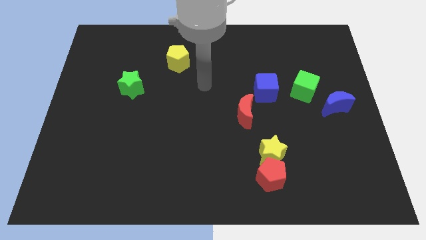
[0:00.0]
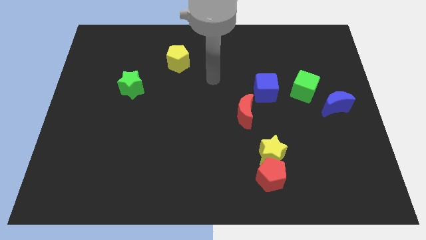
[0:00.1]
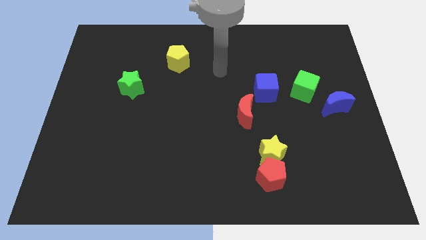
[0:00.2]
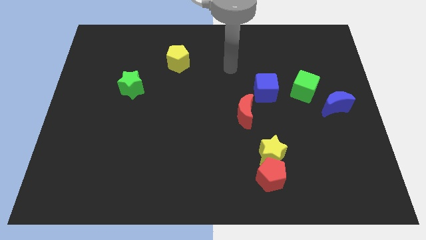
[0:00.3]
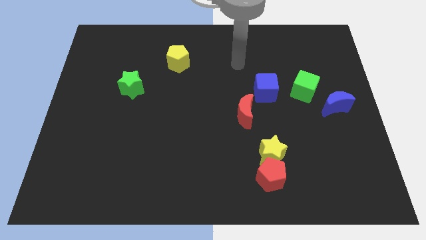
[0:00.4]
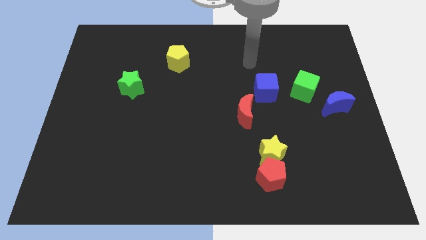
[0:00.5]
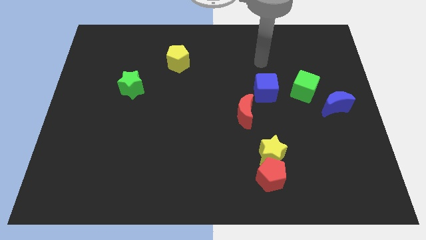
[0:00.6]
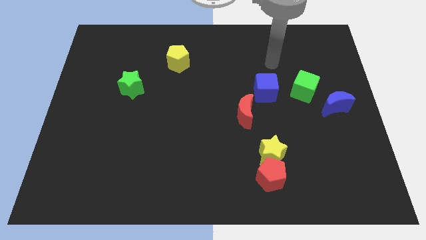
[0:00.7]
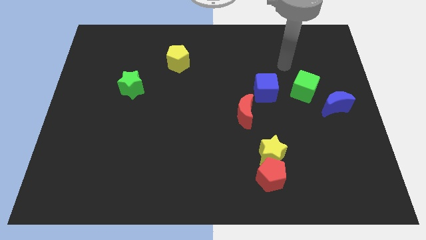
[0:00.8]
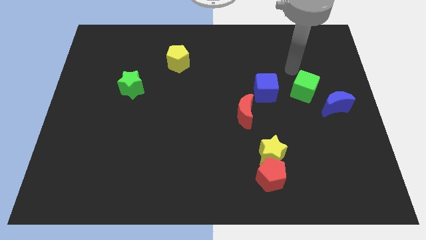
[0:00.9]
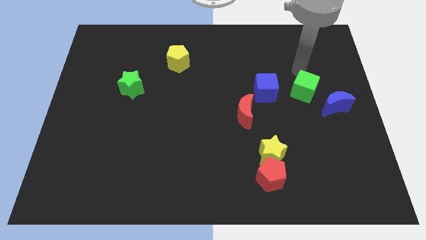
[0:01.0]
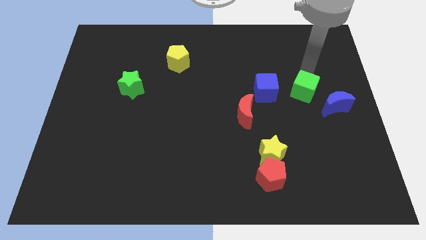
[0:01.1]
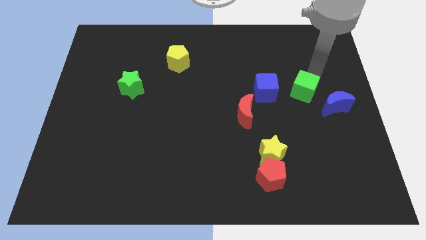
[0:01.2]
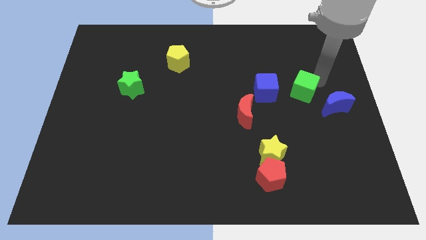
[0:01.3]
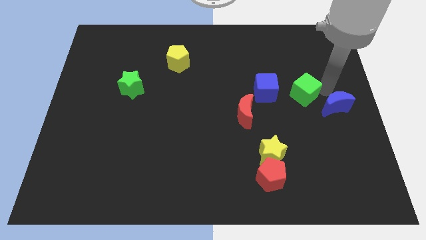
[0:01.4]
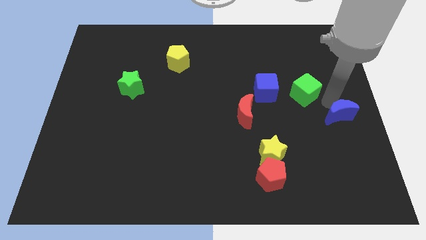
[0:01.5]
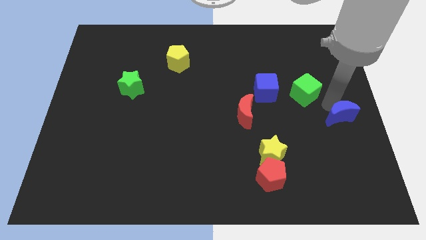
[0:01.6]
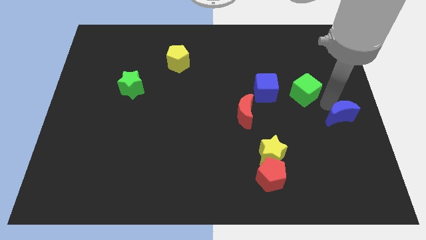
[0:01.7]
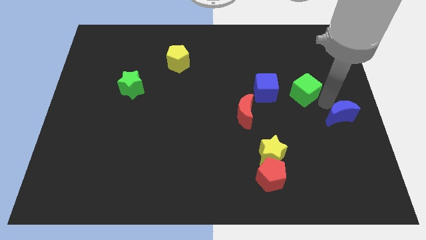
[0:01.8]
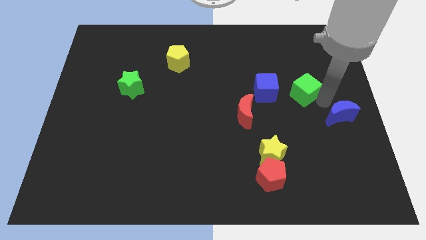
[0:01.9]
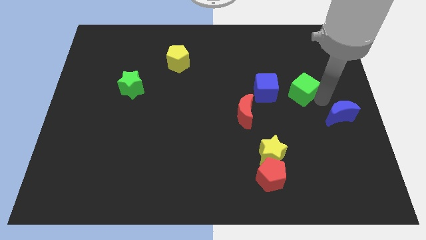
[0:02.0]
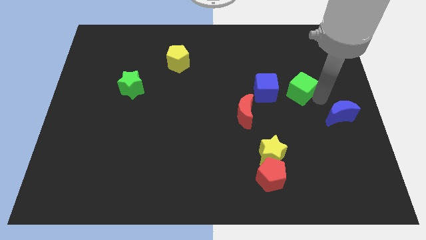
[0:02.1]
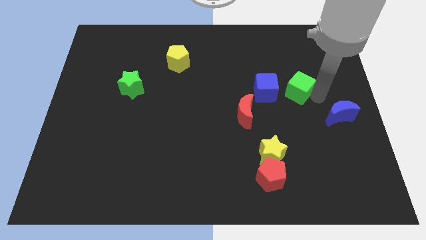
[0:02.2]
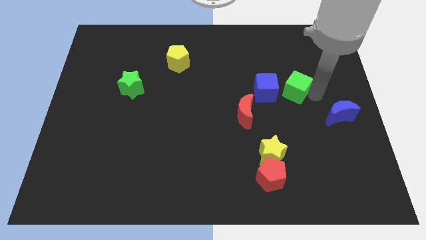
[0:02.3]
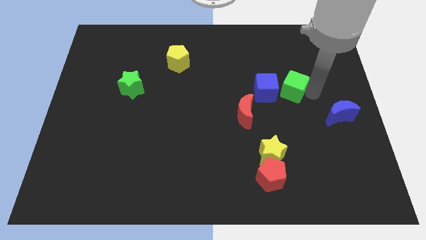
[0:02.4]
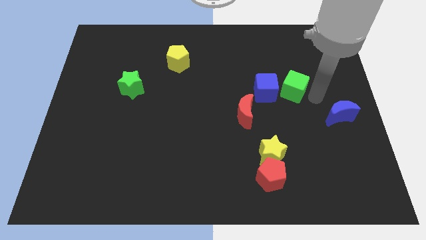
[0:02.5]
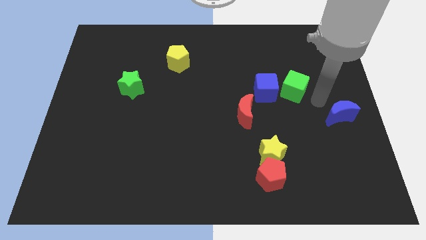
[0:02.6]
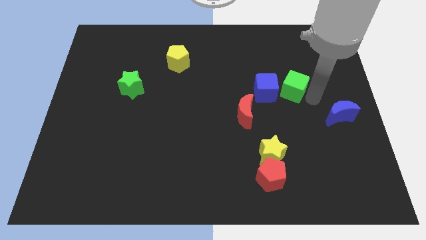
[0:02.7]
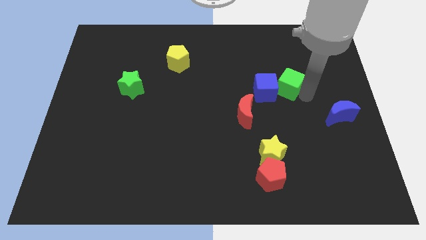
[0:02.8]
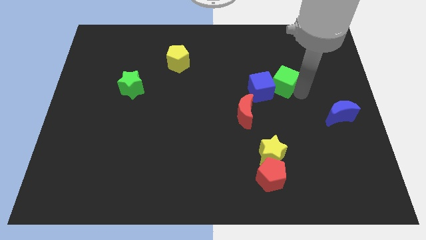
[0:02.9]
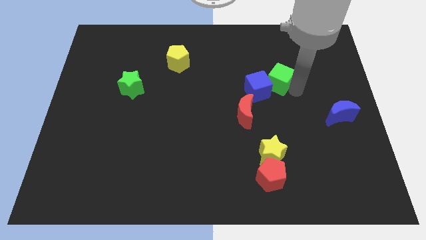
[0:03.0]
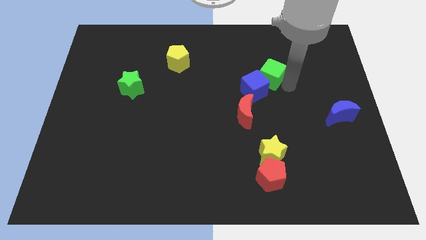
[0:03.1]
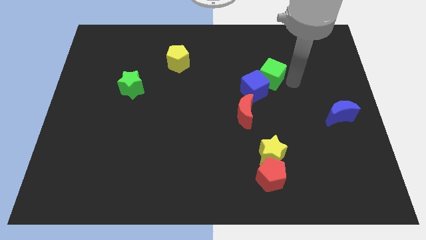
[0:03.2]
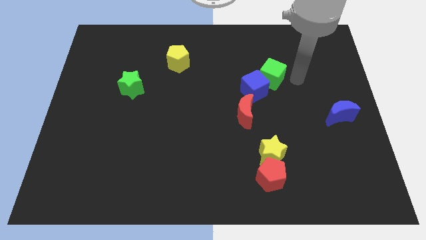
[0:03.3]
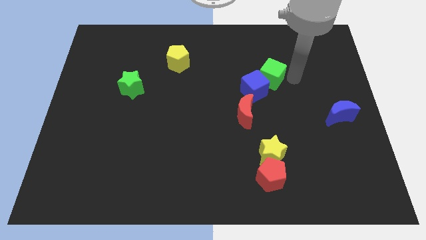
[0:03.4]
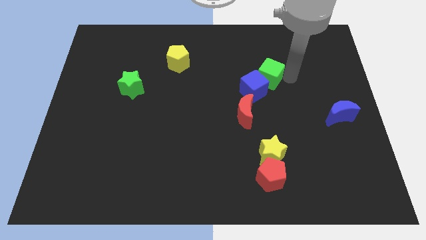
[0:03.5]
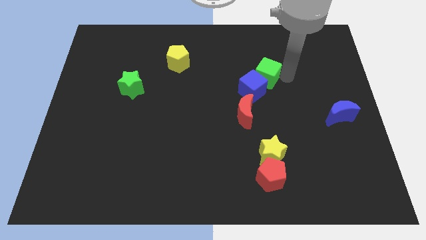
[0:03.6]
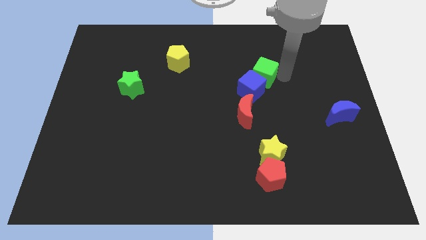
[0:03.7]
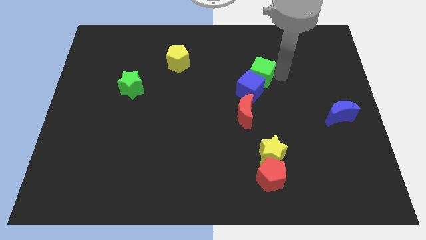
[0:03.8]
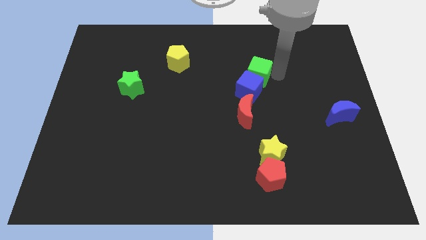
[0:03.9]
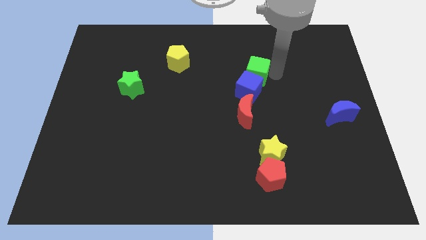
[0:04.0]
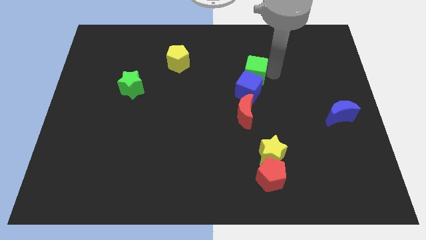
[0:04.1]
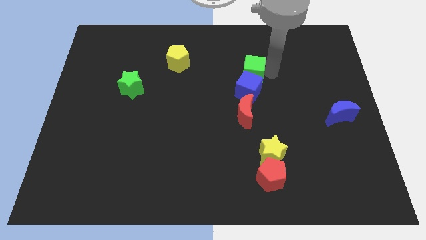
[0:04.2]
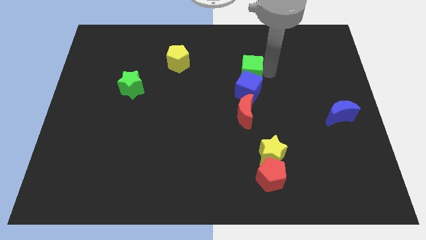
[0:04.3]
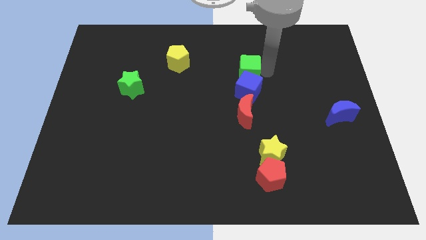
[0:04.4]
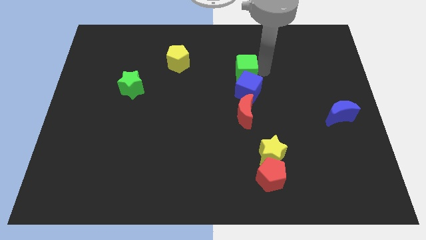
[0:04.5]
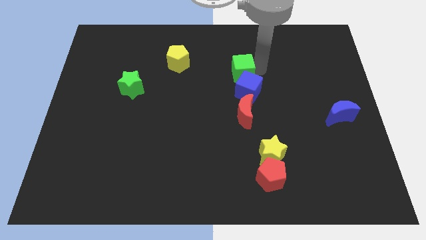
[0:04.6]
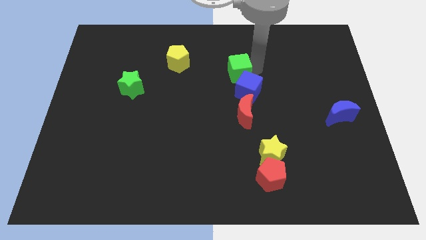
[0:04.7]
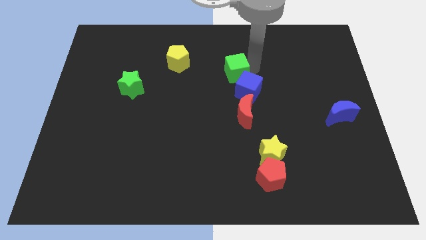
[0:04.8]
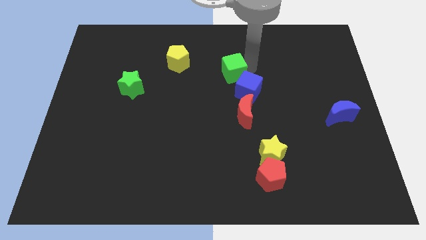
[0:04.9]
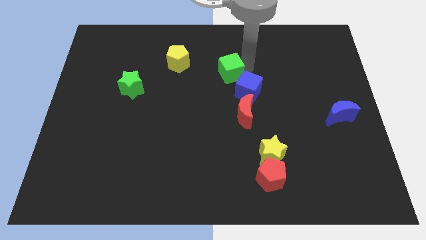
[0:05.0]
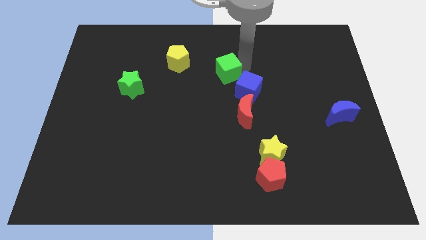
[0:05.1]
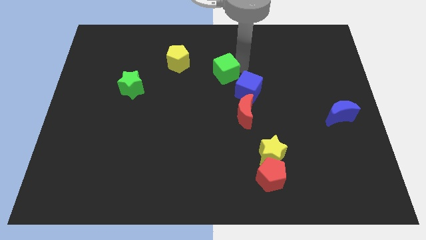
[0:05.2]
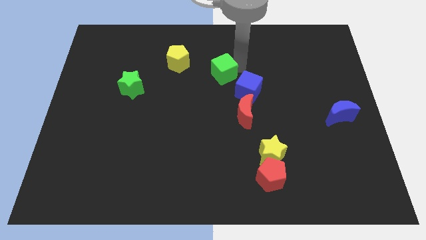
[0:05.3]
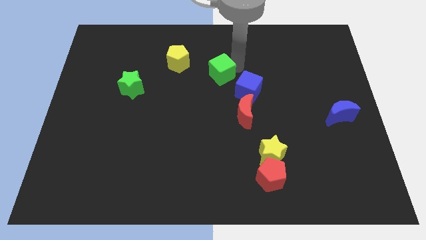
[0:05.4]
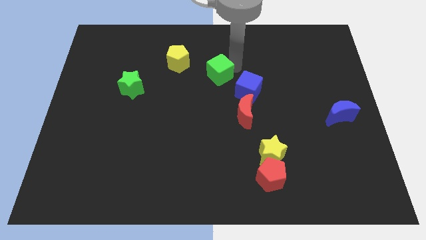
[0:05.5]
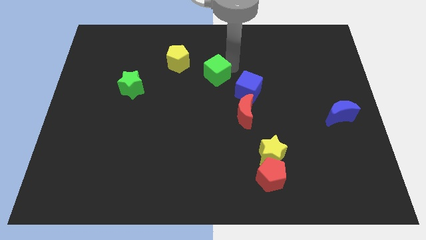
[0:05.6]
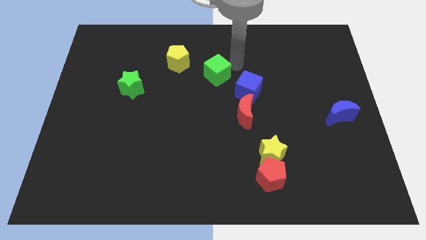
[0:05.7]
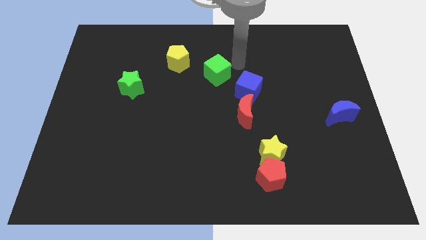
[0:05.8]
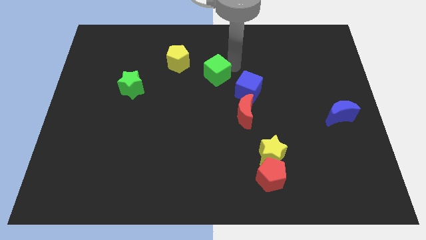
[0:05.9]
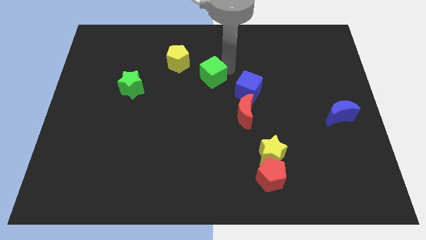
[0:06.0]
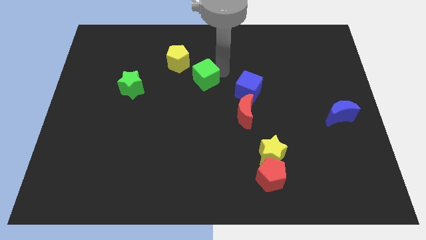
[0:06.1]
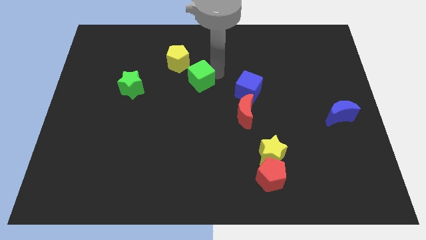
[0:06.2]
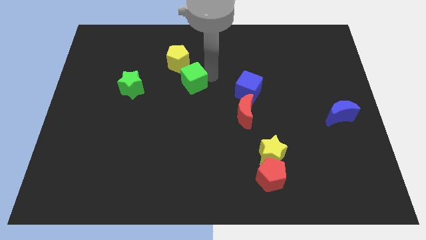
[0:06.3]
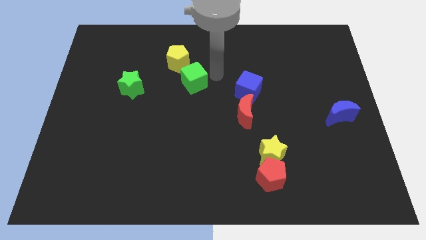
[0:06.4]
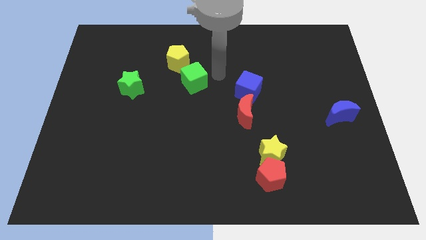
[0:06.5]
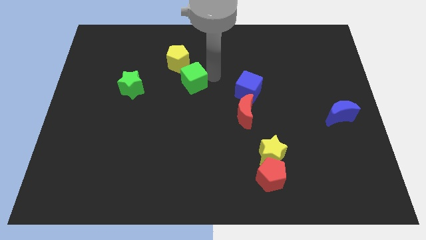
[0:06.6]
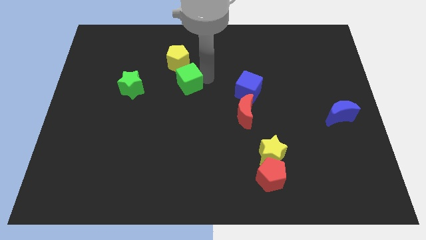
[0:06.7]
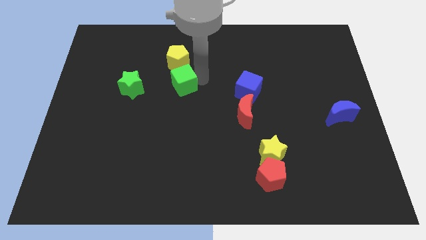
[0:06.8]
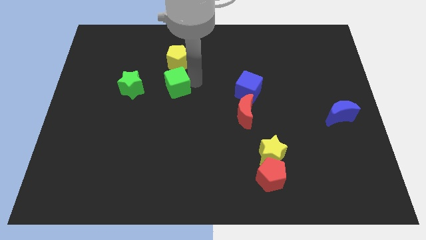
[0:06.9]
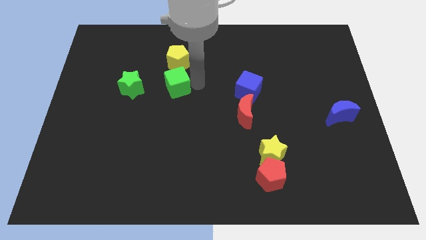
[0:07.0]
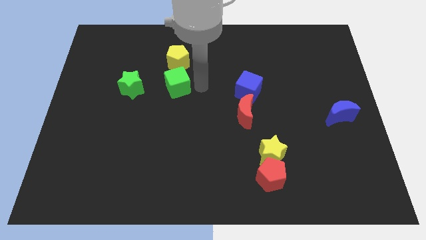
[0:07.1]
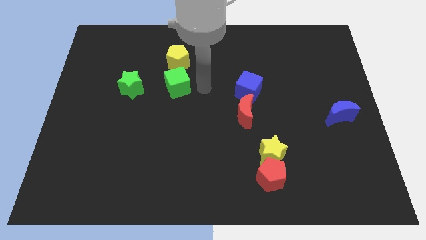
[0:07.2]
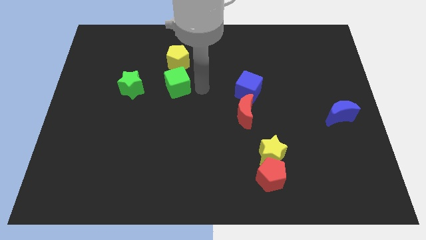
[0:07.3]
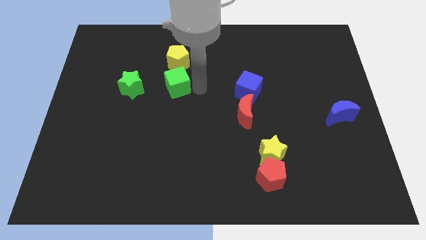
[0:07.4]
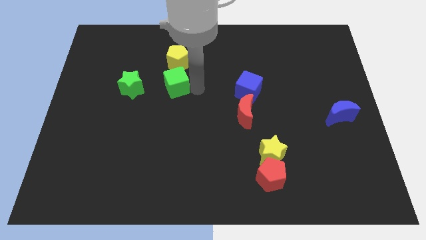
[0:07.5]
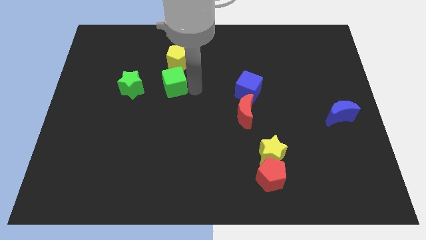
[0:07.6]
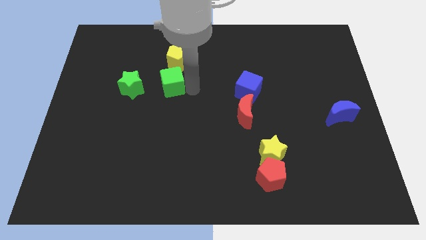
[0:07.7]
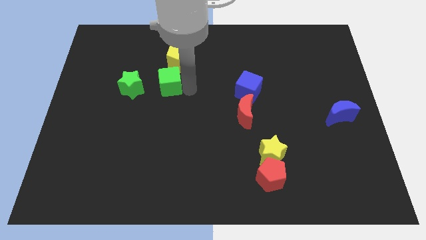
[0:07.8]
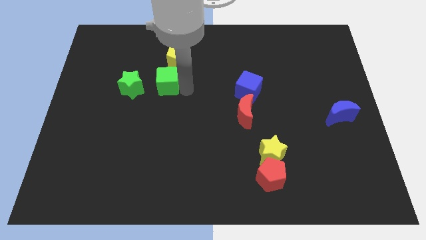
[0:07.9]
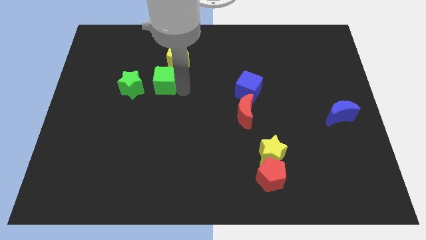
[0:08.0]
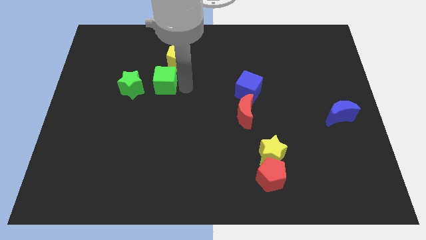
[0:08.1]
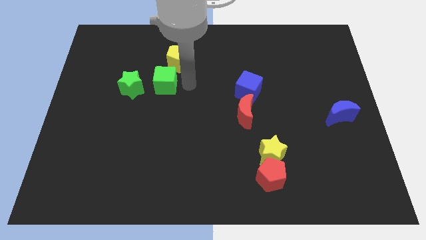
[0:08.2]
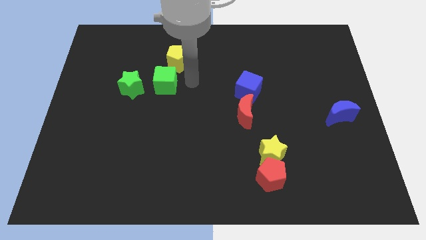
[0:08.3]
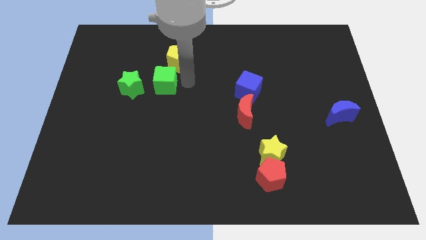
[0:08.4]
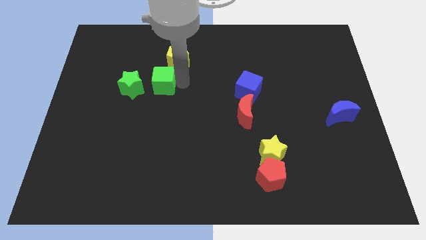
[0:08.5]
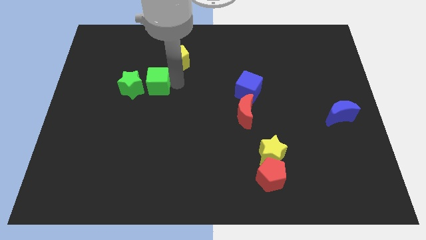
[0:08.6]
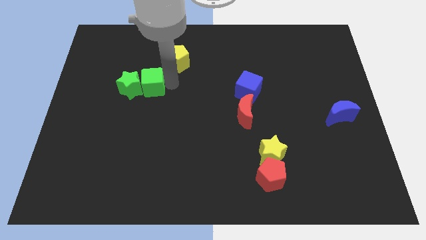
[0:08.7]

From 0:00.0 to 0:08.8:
move the green cube towards the green star
